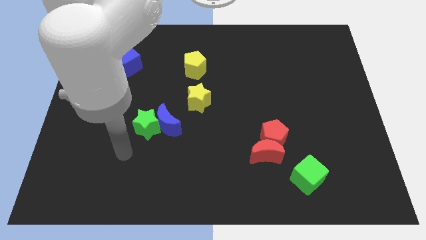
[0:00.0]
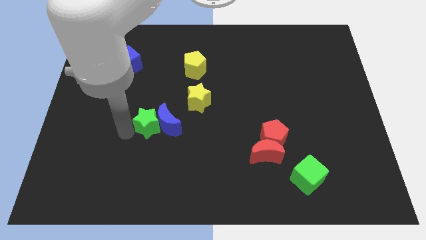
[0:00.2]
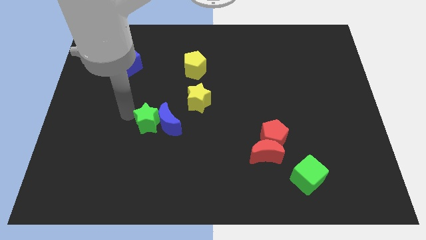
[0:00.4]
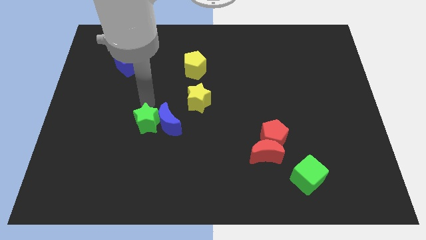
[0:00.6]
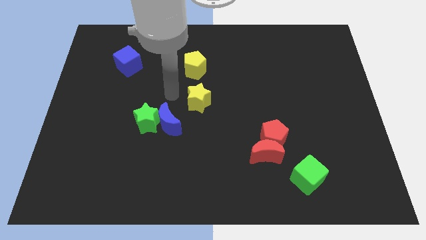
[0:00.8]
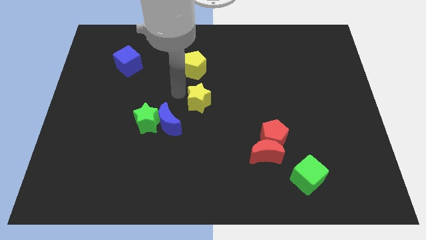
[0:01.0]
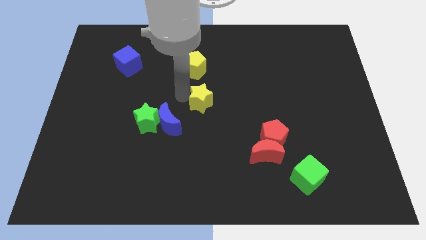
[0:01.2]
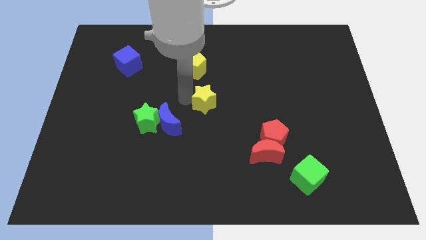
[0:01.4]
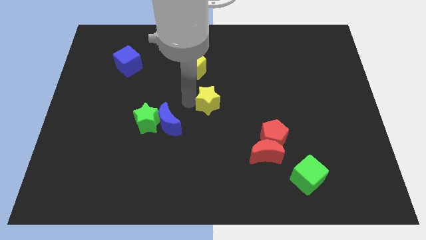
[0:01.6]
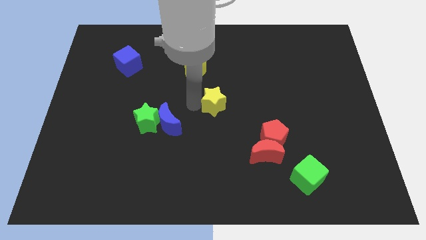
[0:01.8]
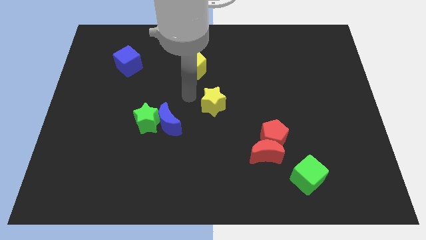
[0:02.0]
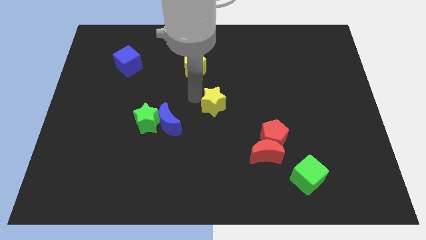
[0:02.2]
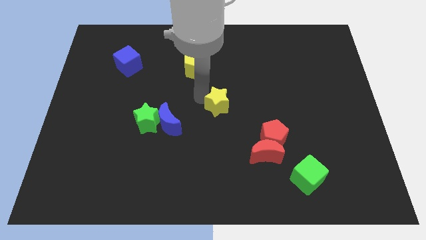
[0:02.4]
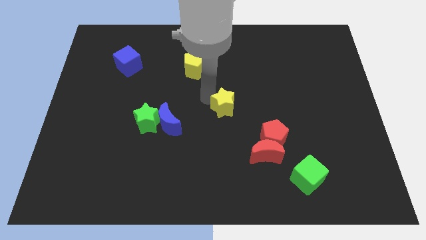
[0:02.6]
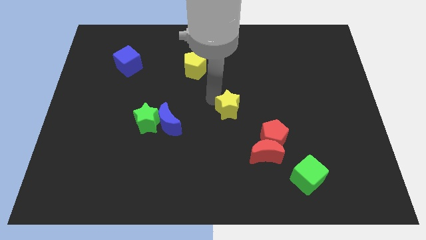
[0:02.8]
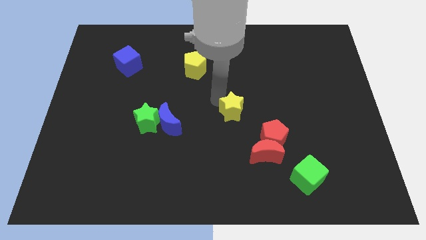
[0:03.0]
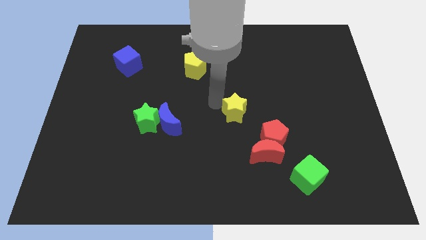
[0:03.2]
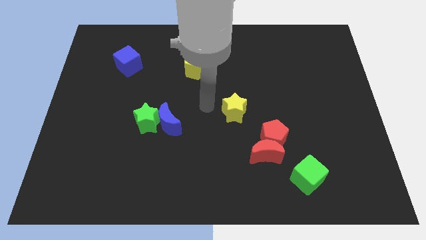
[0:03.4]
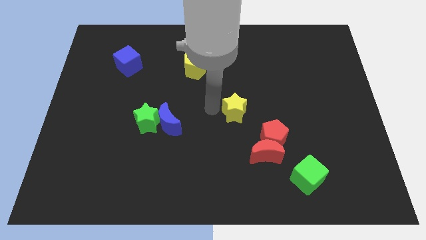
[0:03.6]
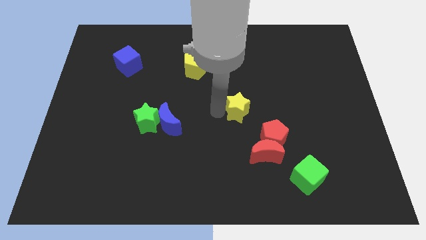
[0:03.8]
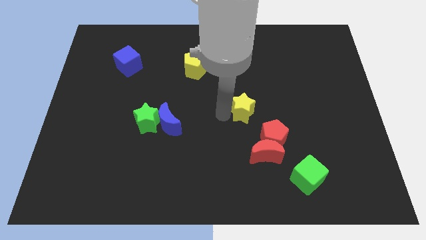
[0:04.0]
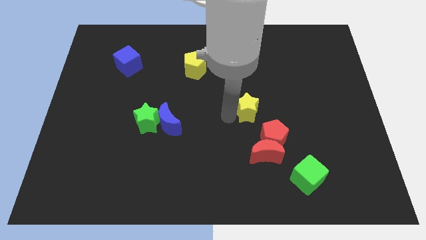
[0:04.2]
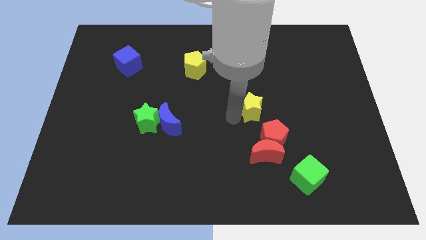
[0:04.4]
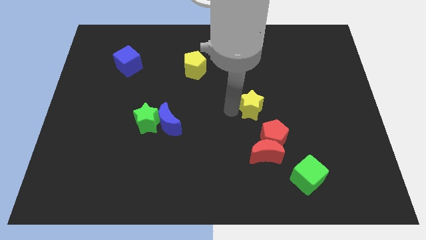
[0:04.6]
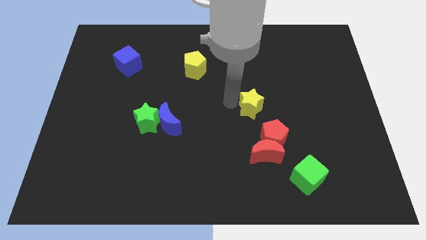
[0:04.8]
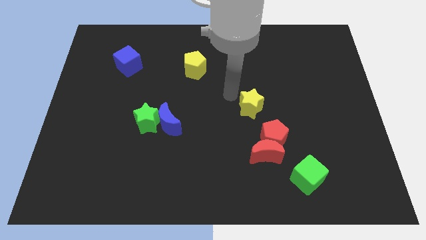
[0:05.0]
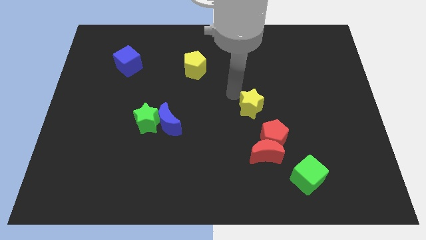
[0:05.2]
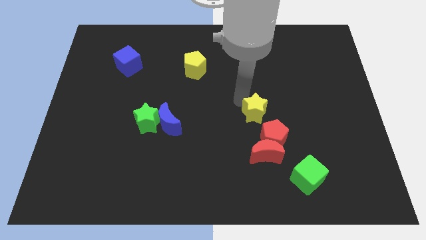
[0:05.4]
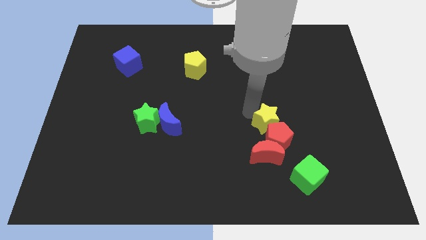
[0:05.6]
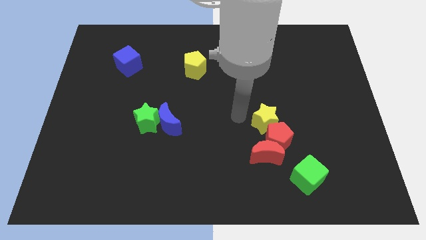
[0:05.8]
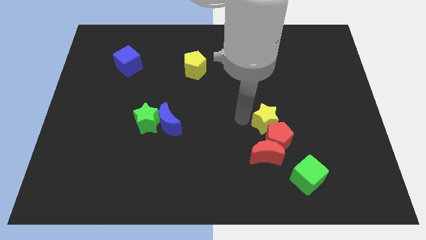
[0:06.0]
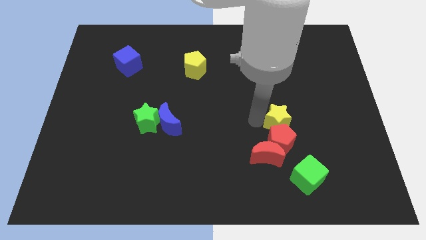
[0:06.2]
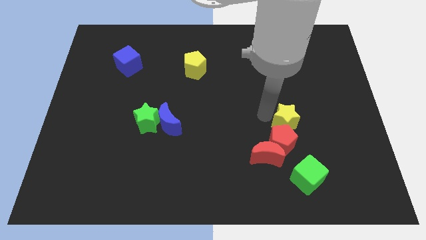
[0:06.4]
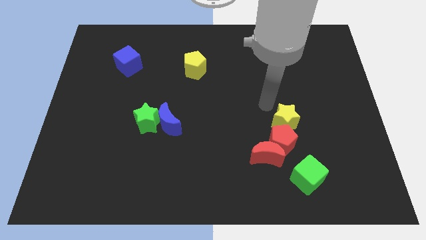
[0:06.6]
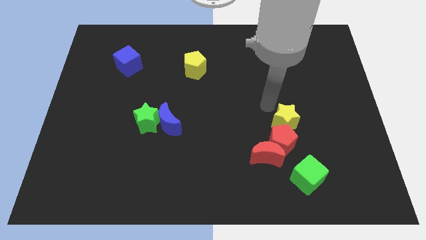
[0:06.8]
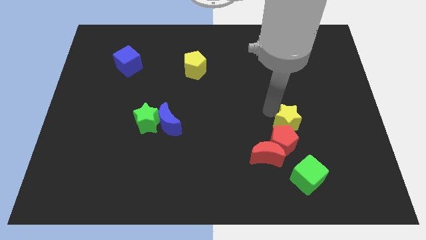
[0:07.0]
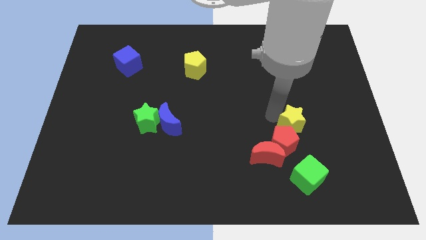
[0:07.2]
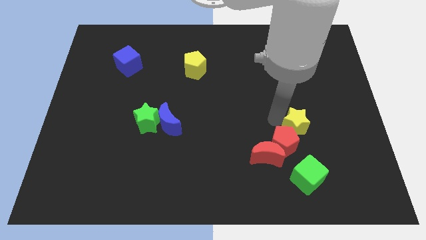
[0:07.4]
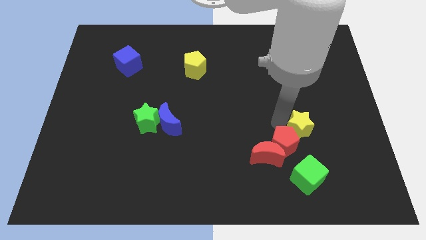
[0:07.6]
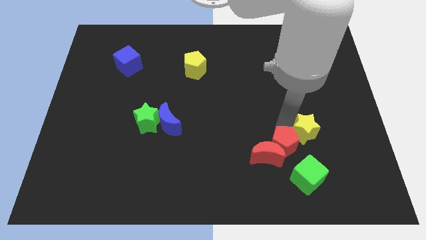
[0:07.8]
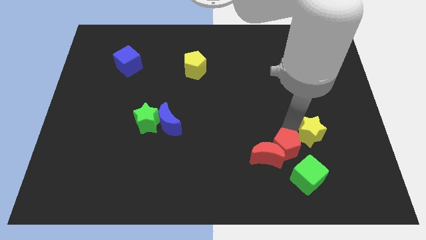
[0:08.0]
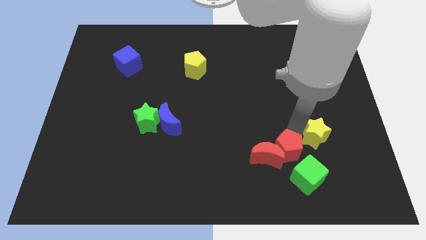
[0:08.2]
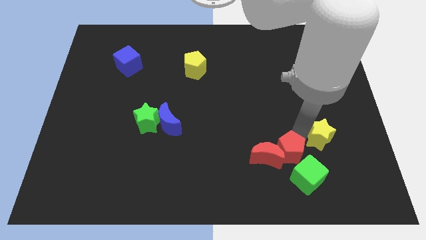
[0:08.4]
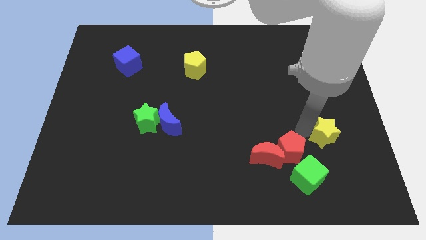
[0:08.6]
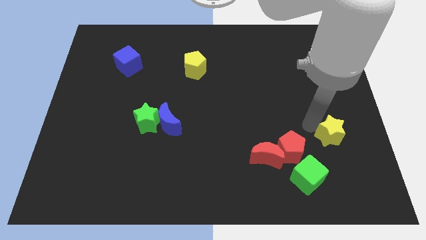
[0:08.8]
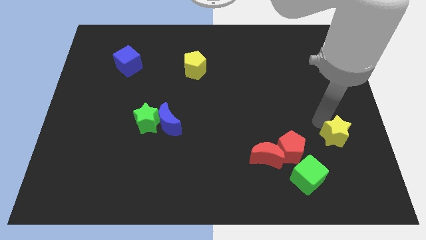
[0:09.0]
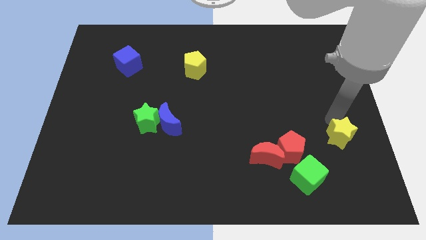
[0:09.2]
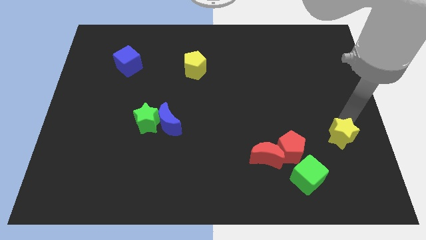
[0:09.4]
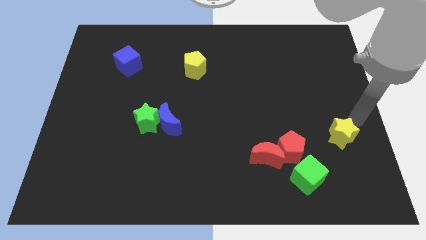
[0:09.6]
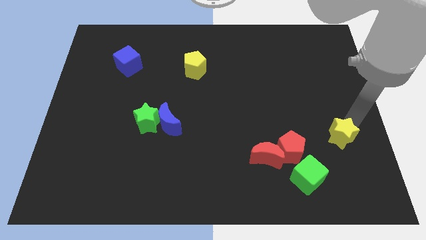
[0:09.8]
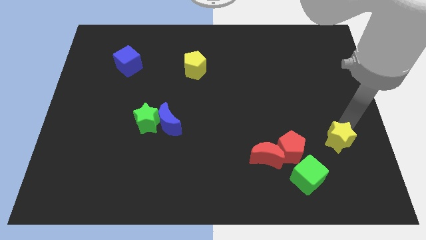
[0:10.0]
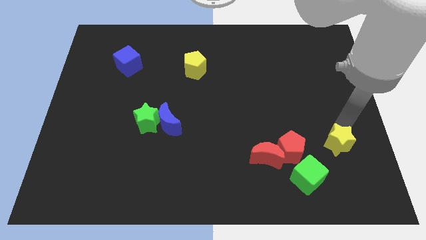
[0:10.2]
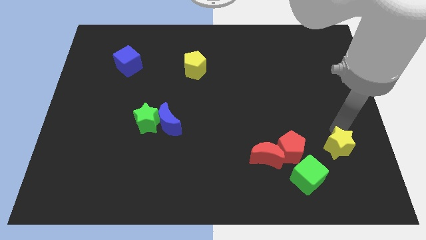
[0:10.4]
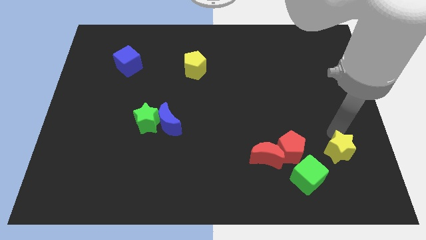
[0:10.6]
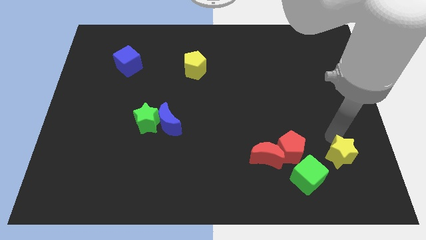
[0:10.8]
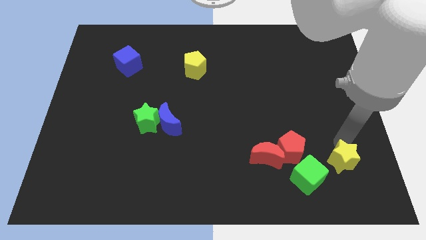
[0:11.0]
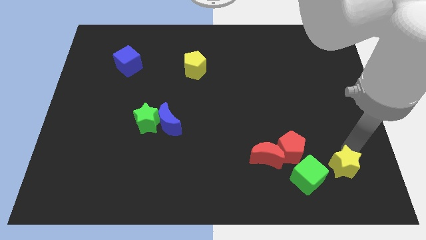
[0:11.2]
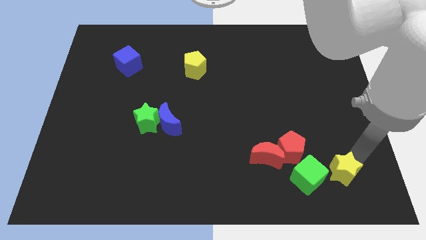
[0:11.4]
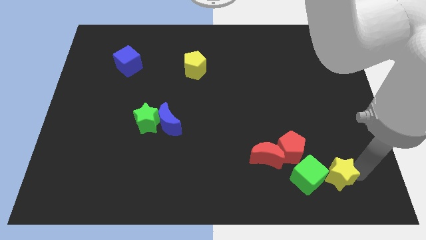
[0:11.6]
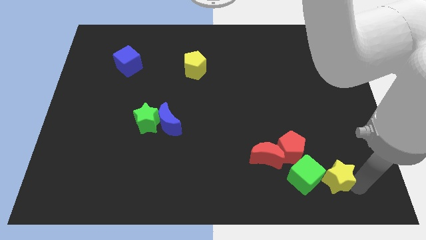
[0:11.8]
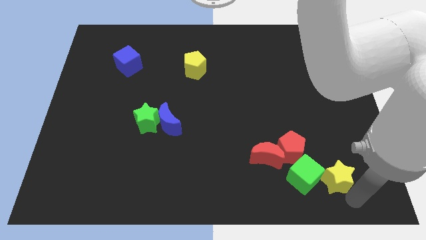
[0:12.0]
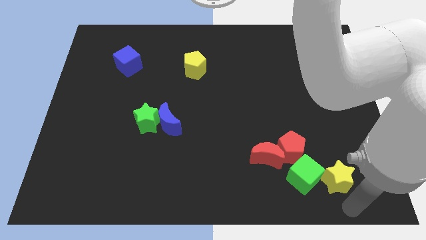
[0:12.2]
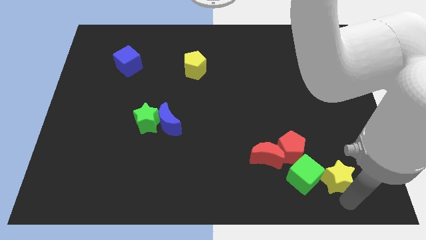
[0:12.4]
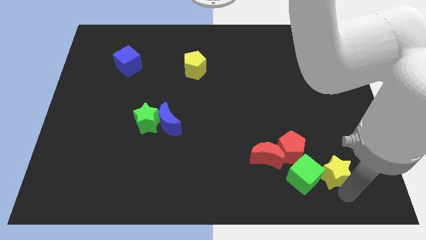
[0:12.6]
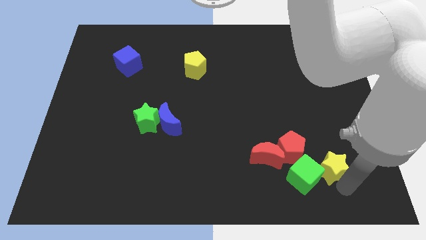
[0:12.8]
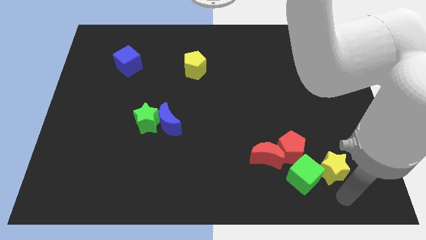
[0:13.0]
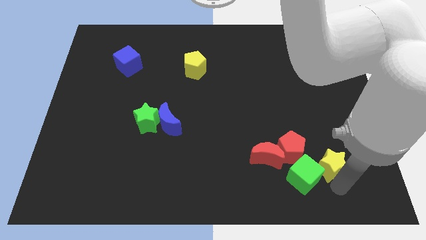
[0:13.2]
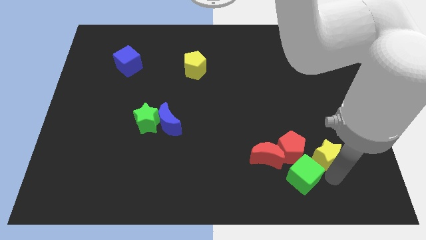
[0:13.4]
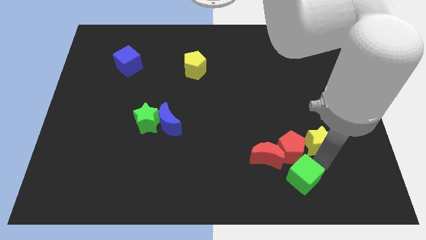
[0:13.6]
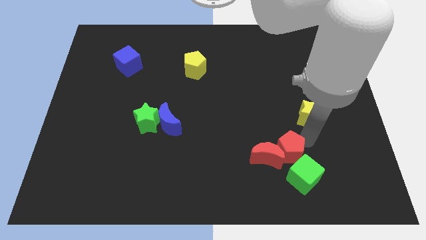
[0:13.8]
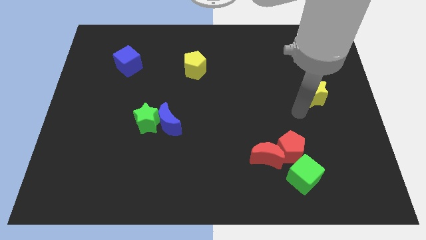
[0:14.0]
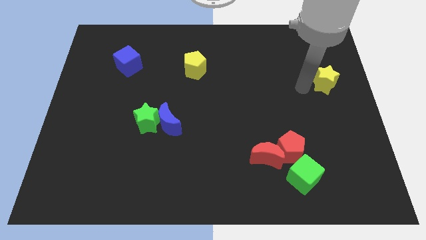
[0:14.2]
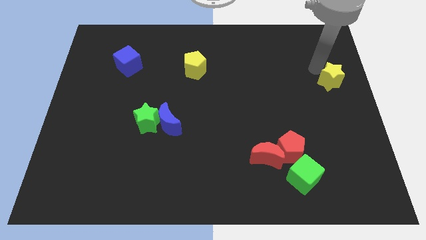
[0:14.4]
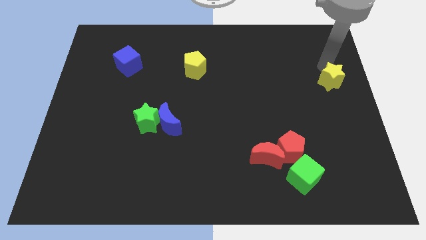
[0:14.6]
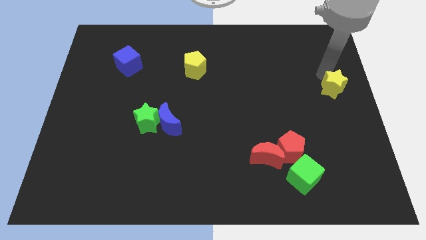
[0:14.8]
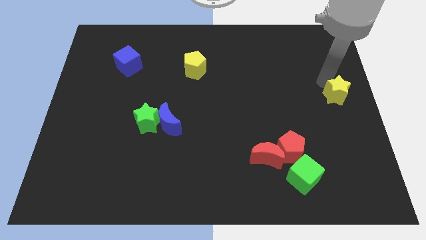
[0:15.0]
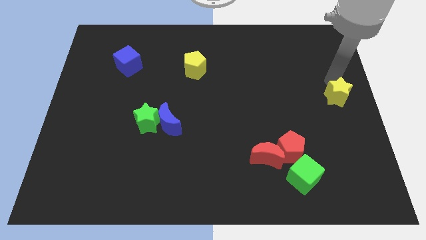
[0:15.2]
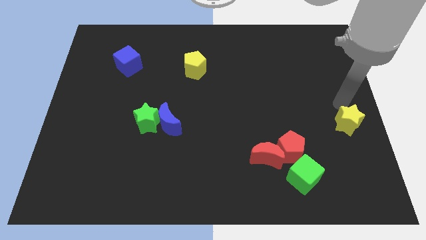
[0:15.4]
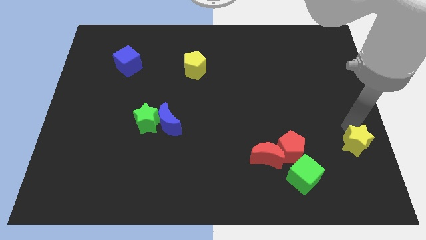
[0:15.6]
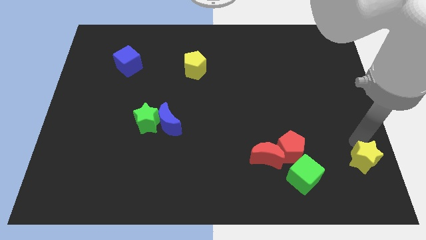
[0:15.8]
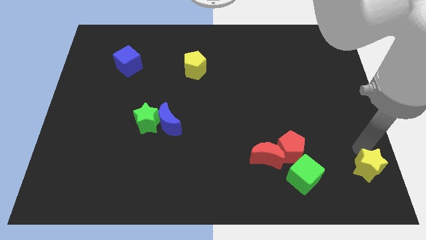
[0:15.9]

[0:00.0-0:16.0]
push the yellow star to the bottom right
